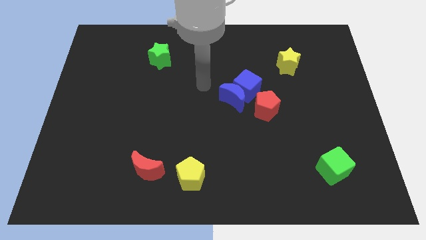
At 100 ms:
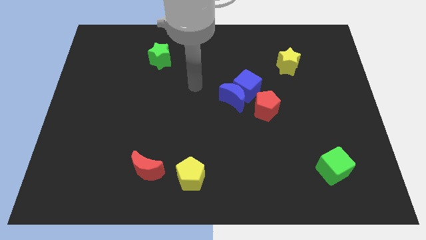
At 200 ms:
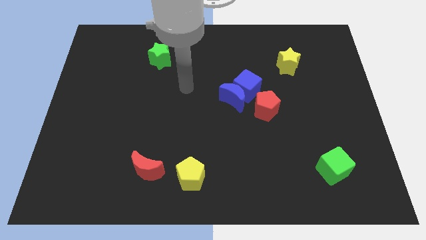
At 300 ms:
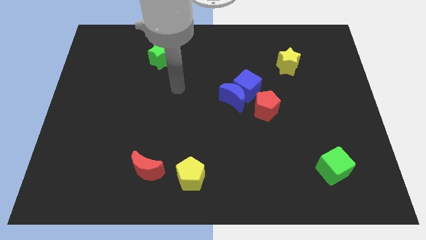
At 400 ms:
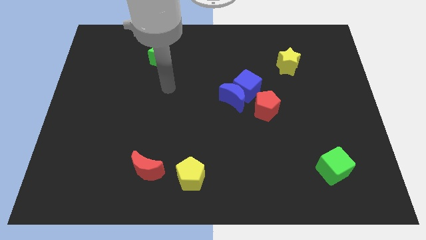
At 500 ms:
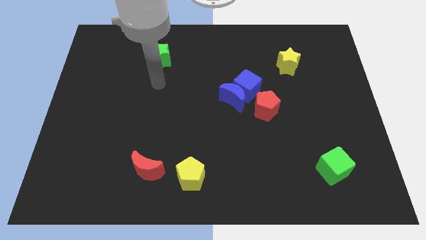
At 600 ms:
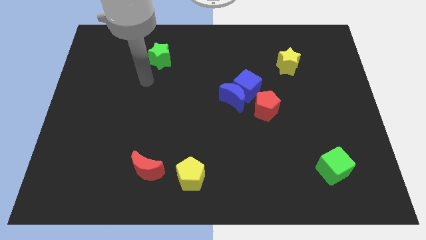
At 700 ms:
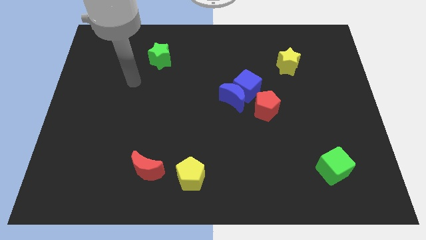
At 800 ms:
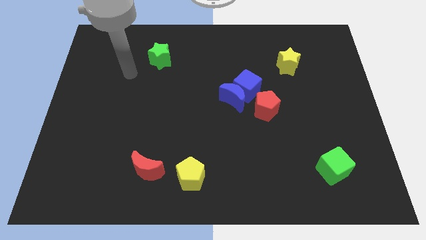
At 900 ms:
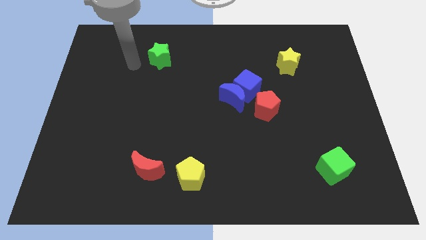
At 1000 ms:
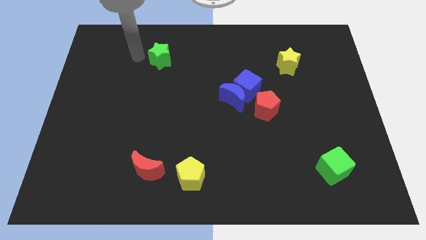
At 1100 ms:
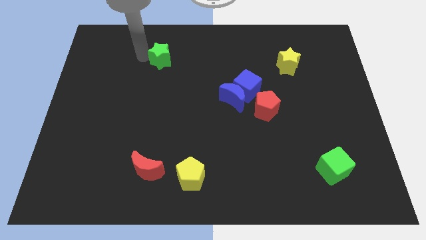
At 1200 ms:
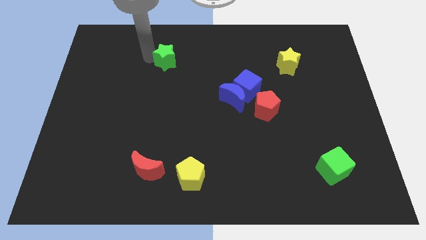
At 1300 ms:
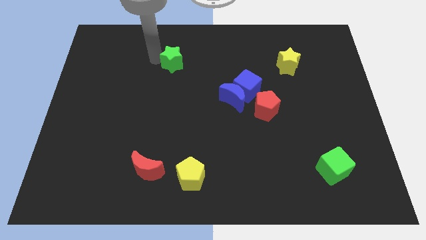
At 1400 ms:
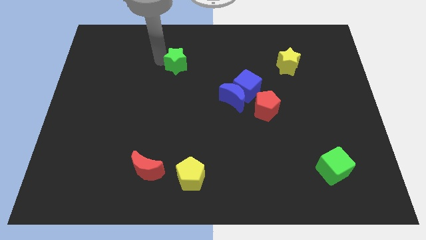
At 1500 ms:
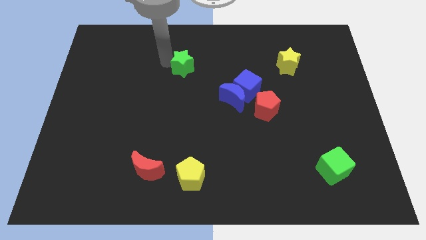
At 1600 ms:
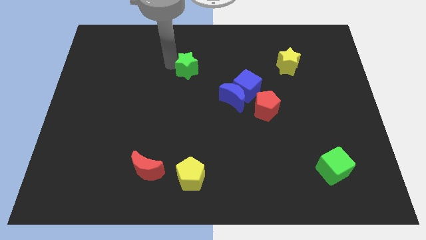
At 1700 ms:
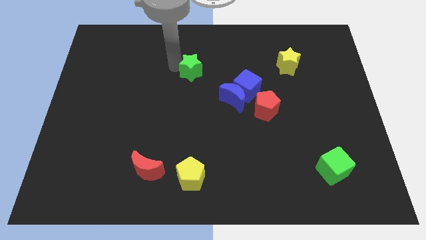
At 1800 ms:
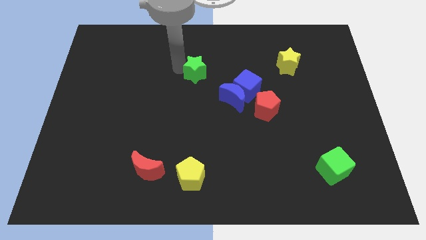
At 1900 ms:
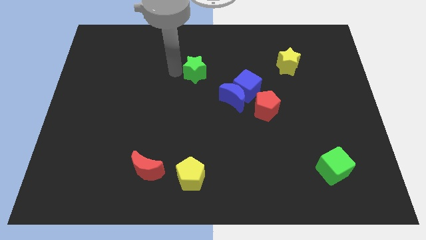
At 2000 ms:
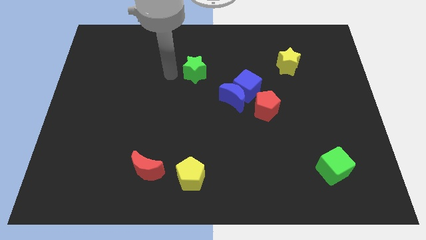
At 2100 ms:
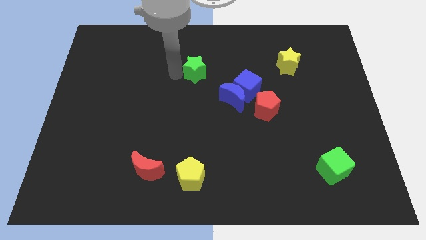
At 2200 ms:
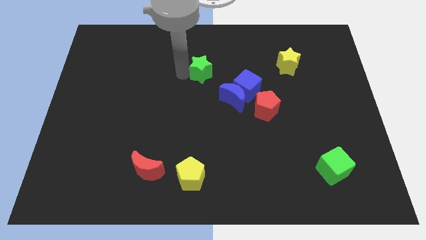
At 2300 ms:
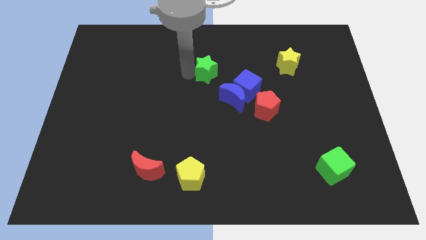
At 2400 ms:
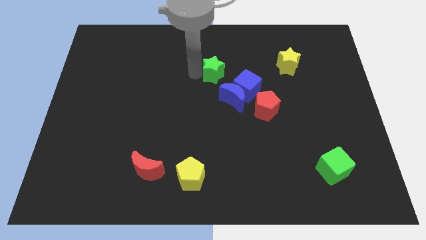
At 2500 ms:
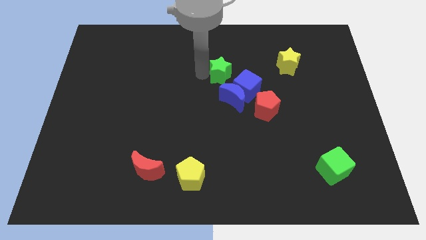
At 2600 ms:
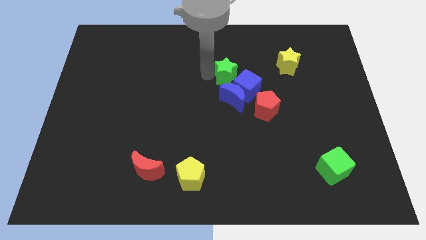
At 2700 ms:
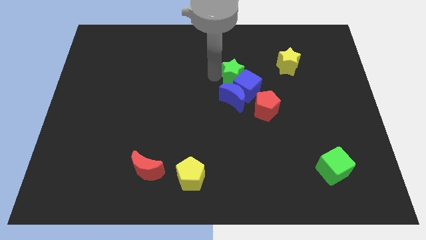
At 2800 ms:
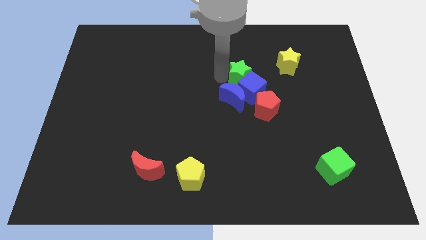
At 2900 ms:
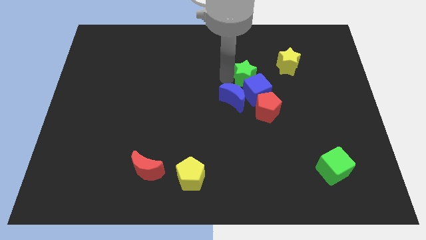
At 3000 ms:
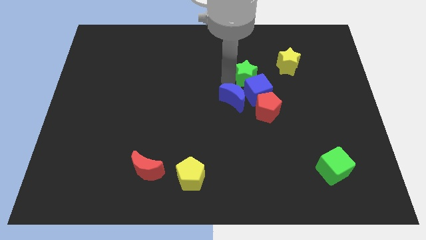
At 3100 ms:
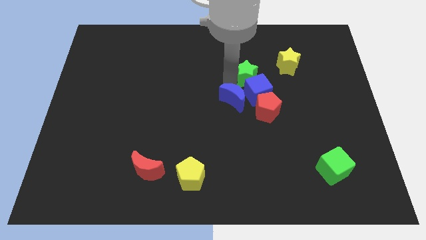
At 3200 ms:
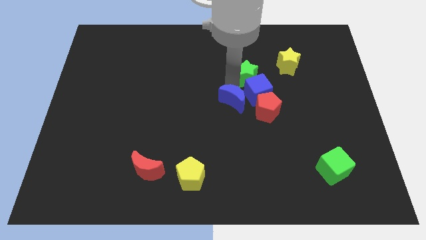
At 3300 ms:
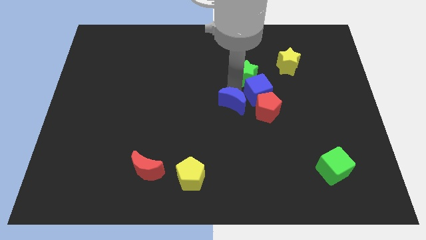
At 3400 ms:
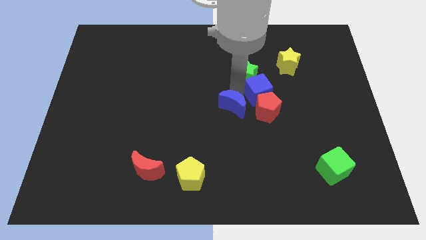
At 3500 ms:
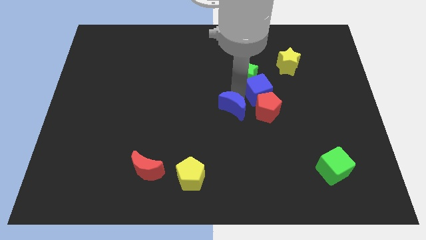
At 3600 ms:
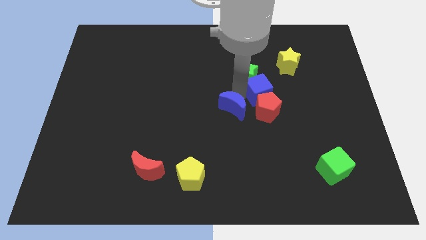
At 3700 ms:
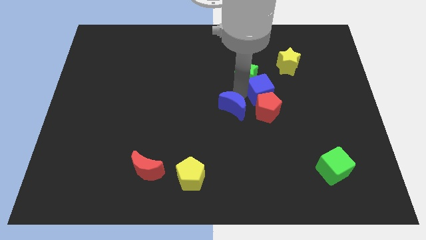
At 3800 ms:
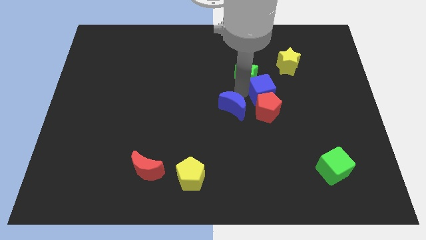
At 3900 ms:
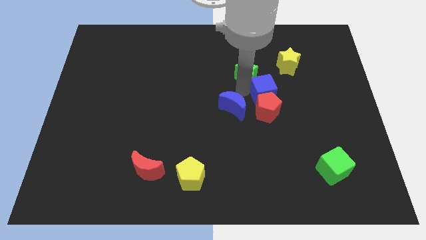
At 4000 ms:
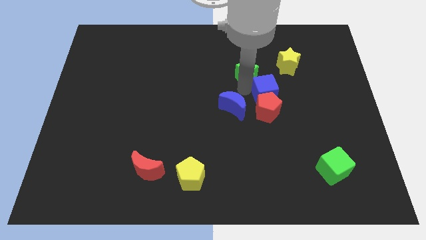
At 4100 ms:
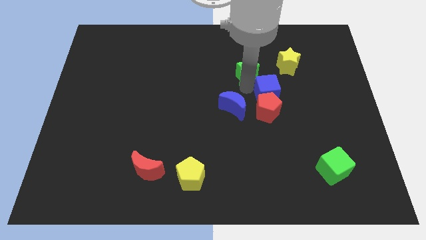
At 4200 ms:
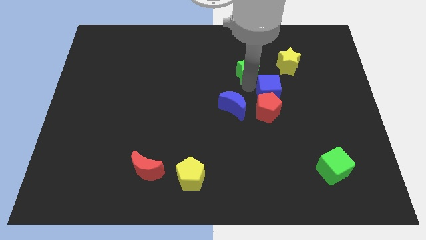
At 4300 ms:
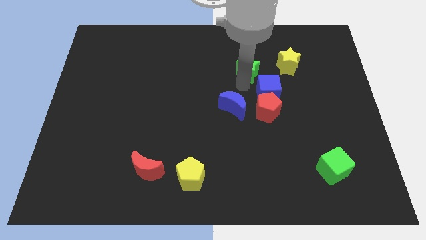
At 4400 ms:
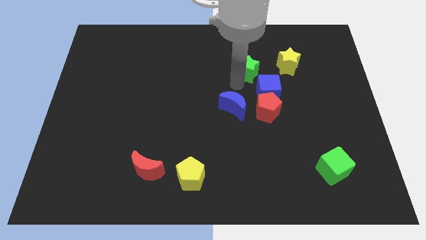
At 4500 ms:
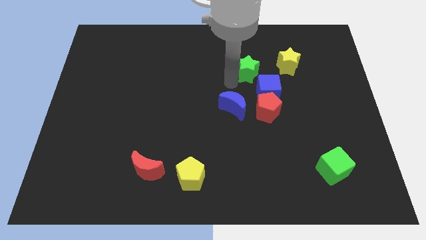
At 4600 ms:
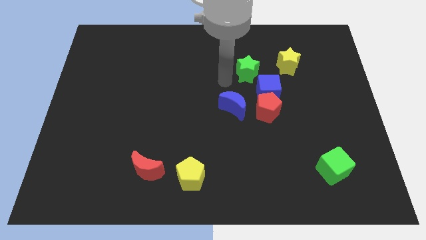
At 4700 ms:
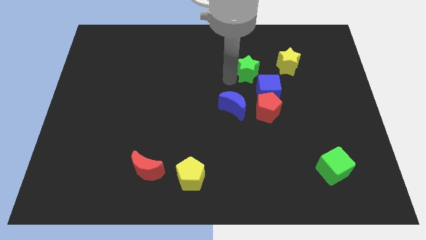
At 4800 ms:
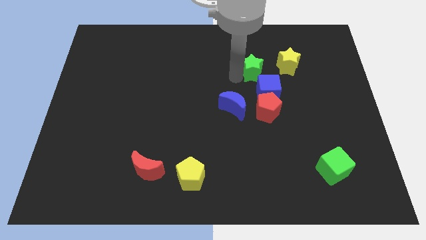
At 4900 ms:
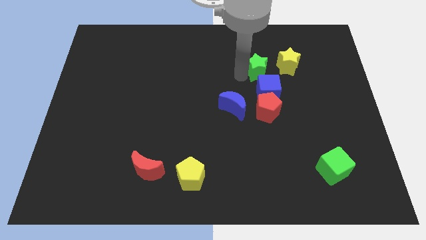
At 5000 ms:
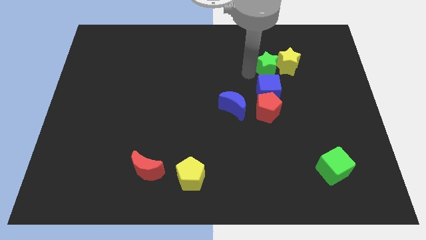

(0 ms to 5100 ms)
slide the green star towards the yellow star
